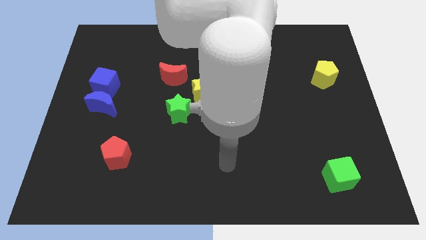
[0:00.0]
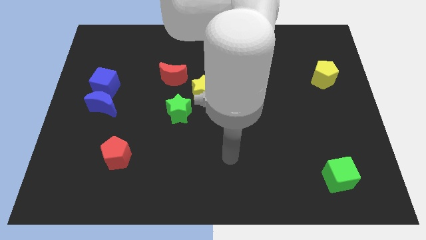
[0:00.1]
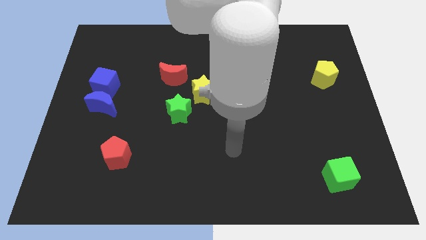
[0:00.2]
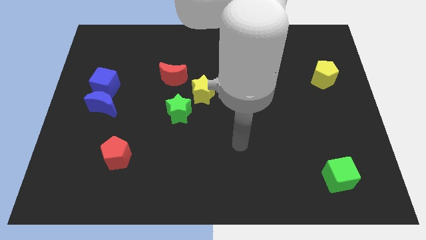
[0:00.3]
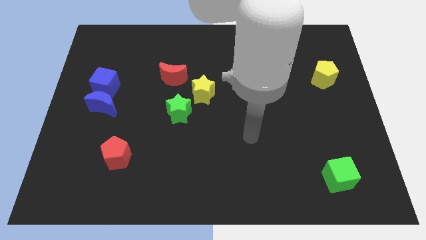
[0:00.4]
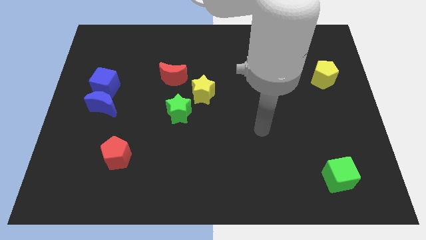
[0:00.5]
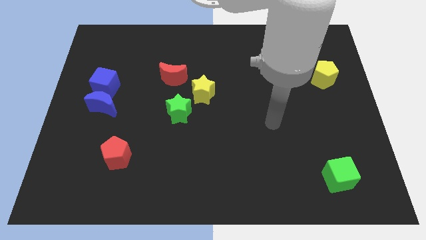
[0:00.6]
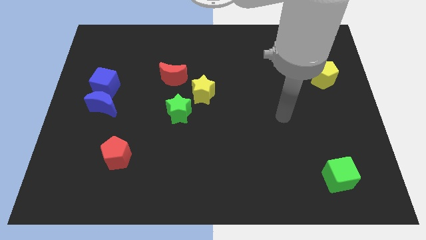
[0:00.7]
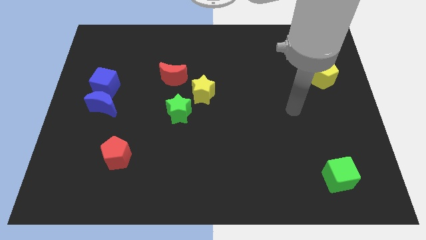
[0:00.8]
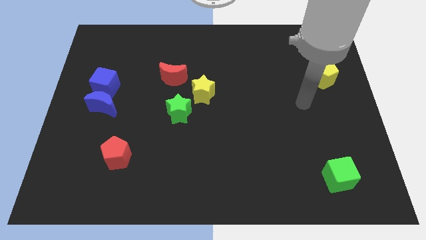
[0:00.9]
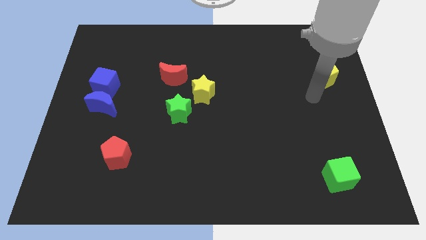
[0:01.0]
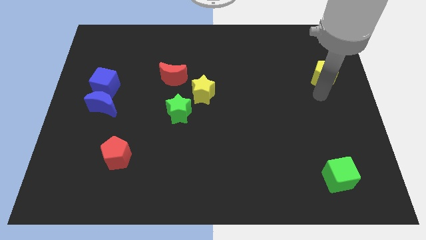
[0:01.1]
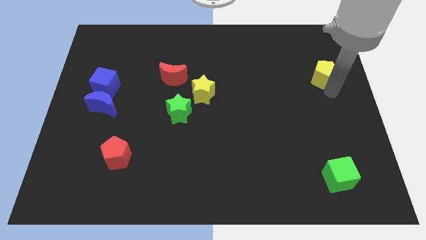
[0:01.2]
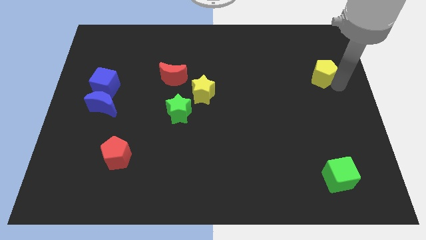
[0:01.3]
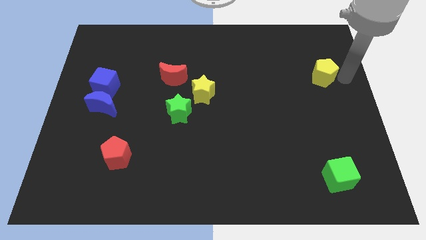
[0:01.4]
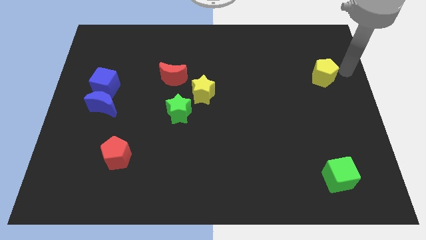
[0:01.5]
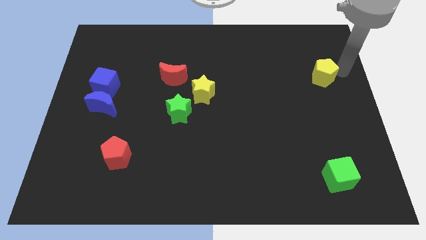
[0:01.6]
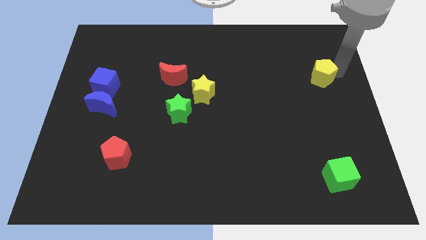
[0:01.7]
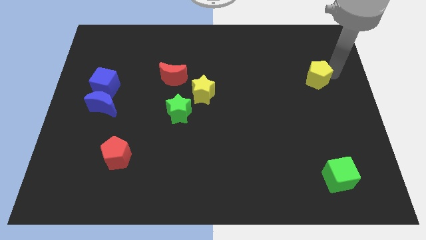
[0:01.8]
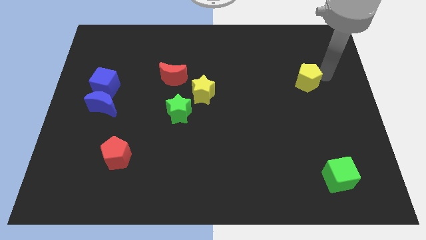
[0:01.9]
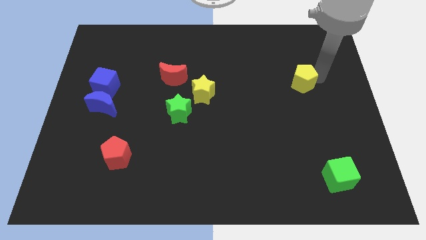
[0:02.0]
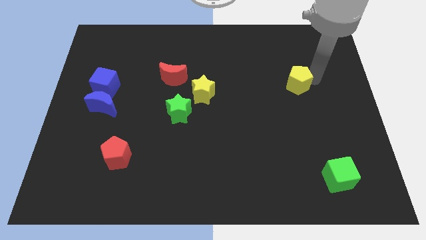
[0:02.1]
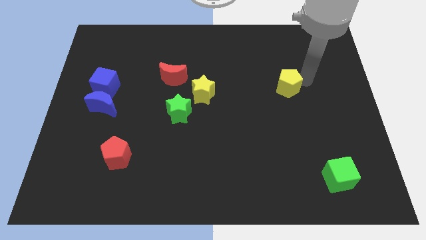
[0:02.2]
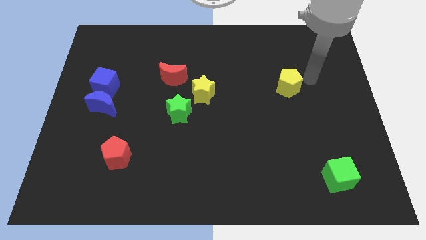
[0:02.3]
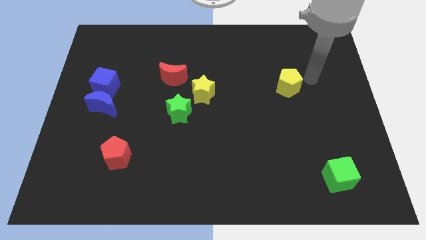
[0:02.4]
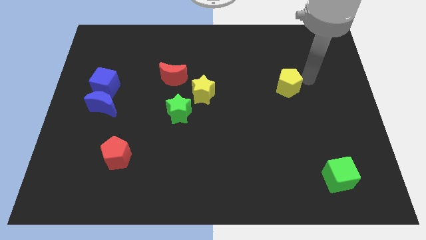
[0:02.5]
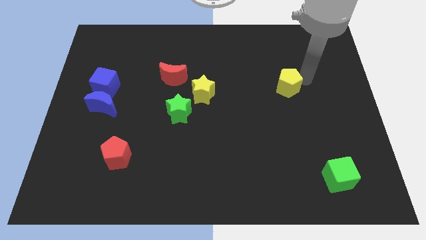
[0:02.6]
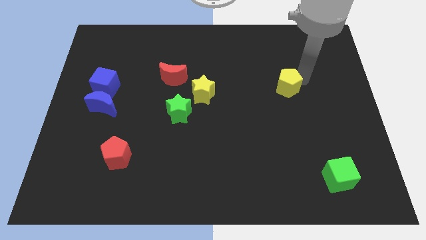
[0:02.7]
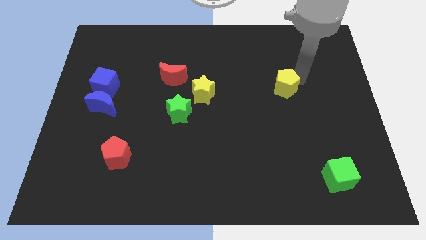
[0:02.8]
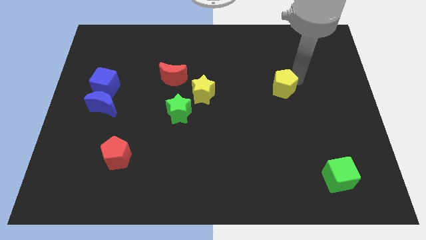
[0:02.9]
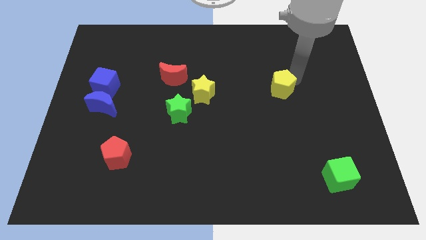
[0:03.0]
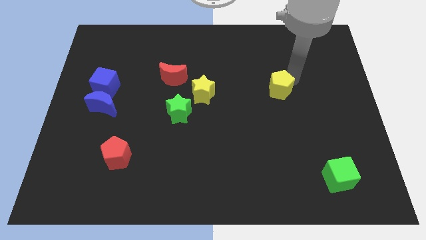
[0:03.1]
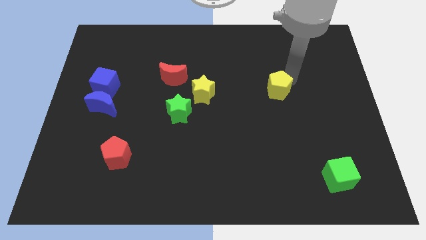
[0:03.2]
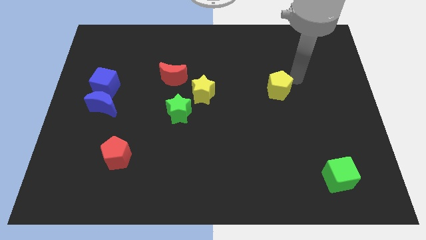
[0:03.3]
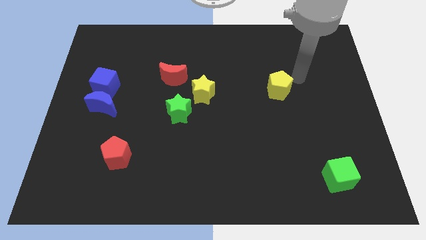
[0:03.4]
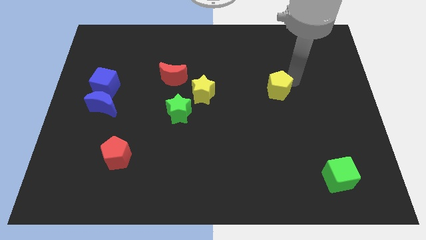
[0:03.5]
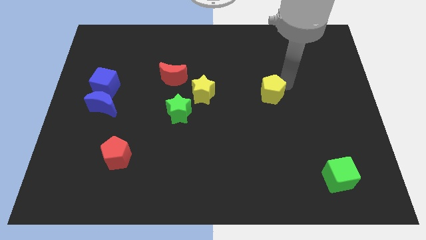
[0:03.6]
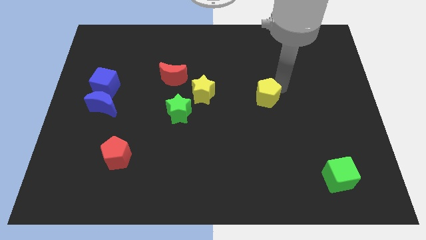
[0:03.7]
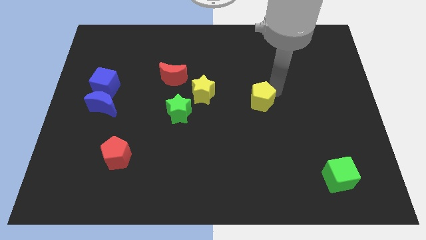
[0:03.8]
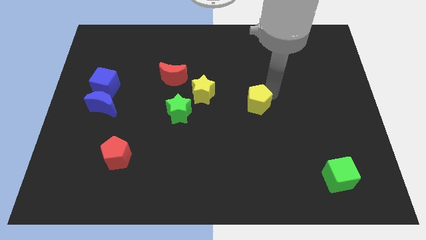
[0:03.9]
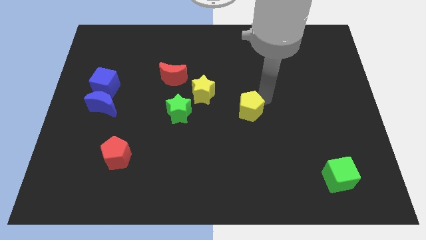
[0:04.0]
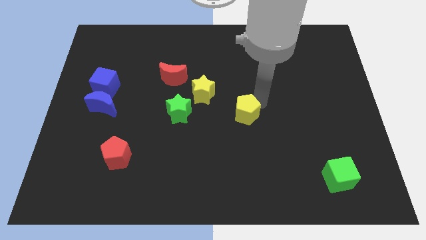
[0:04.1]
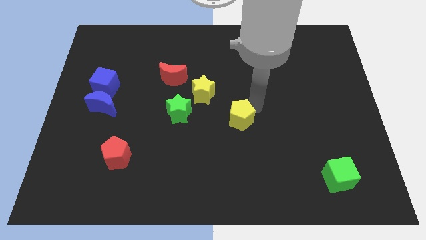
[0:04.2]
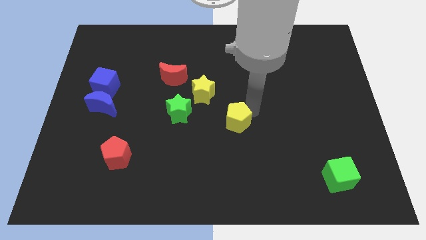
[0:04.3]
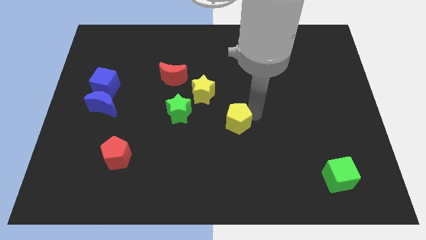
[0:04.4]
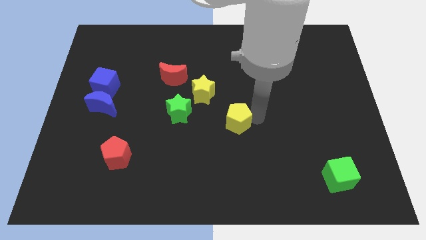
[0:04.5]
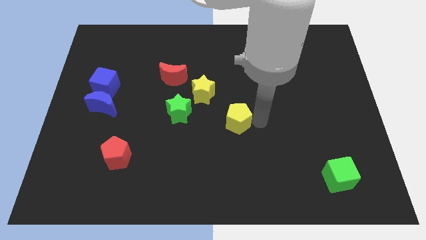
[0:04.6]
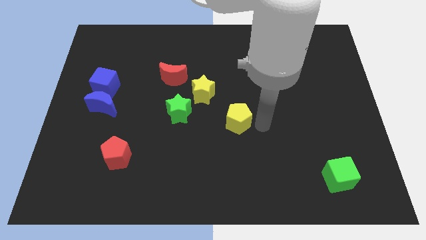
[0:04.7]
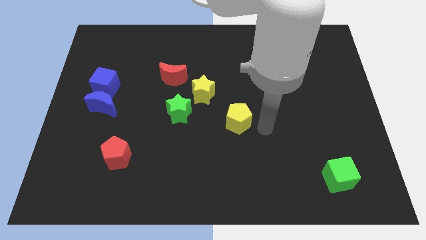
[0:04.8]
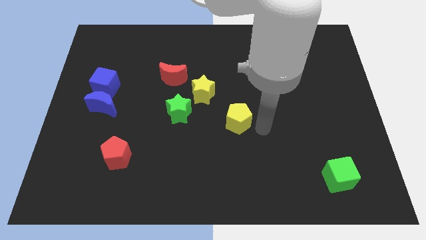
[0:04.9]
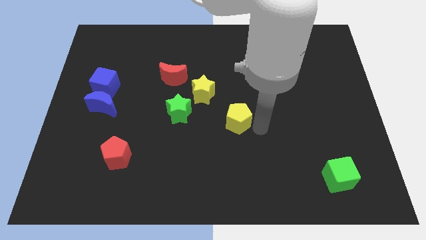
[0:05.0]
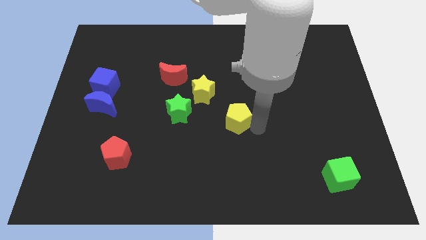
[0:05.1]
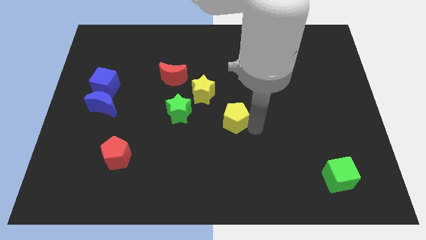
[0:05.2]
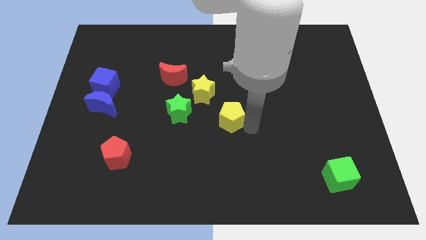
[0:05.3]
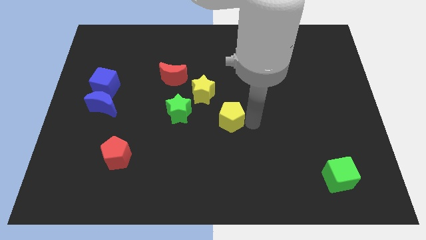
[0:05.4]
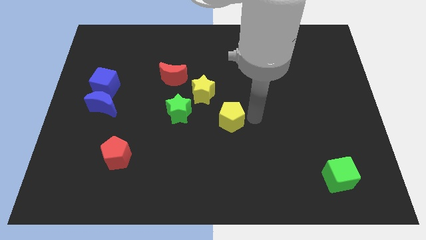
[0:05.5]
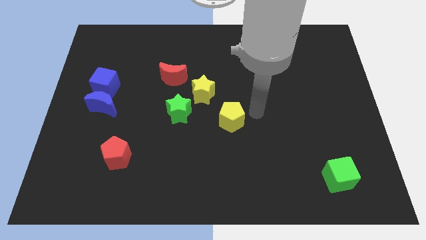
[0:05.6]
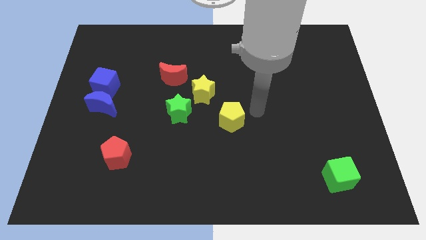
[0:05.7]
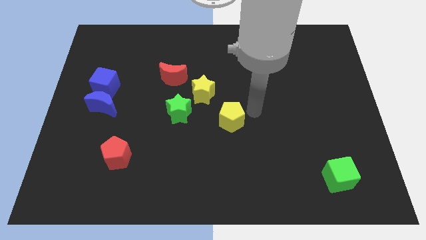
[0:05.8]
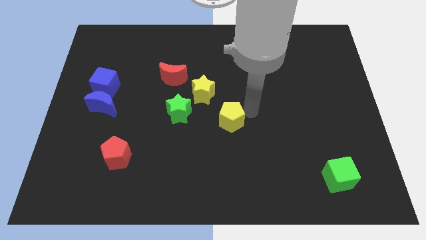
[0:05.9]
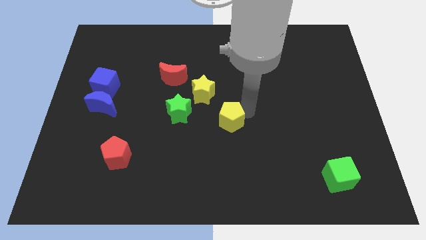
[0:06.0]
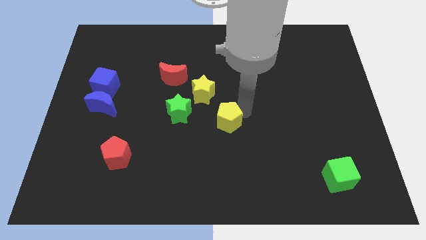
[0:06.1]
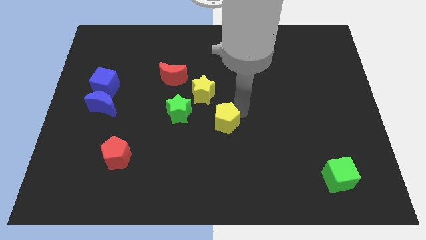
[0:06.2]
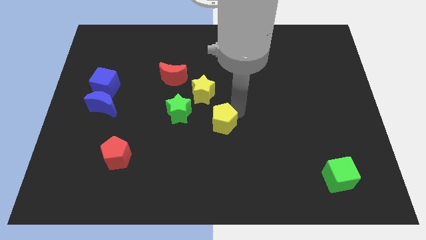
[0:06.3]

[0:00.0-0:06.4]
move the yellow pentagon to the bottom of the yellow star

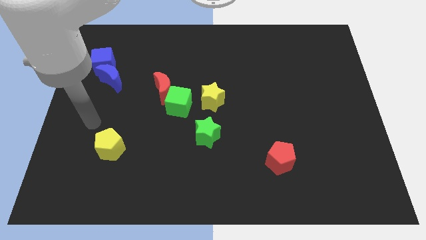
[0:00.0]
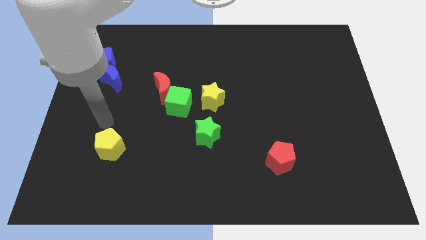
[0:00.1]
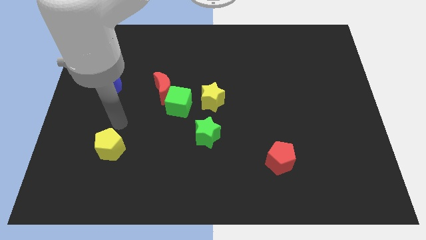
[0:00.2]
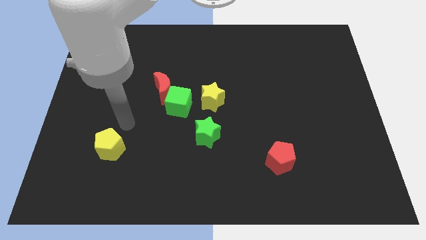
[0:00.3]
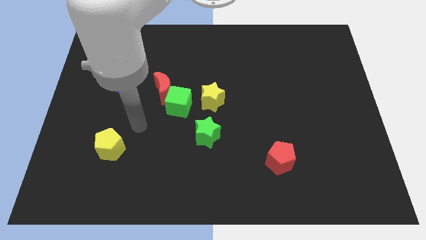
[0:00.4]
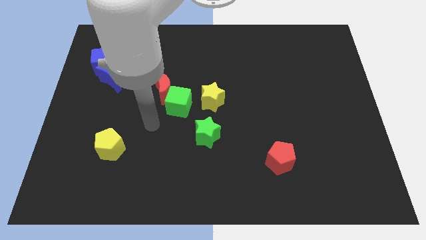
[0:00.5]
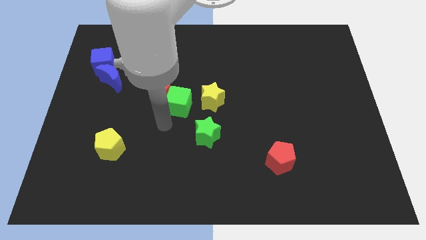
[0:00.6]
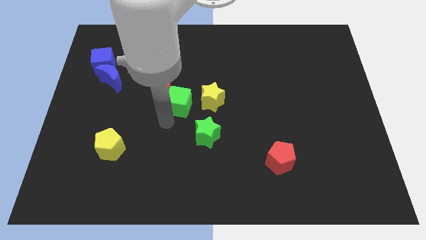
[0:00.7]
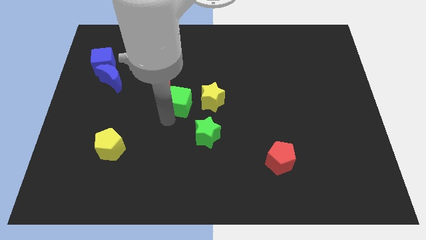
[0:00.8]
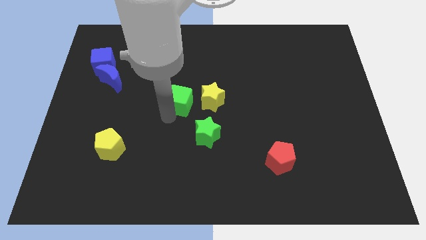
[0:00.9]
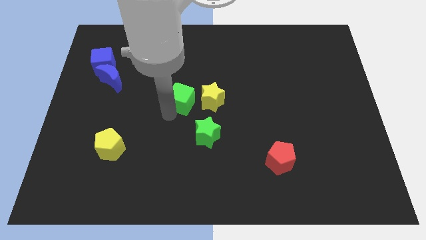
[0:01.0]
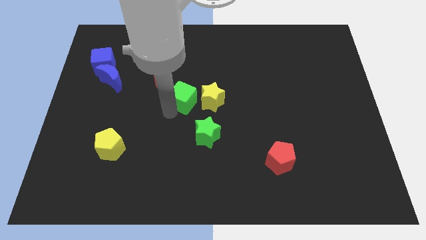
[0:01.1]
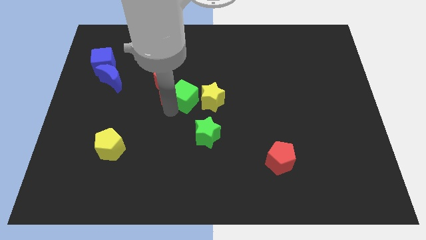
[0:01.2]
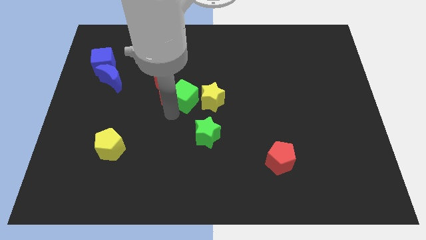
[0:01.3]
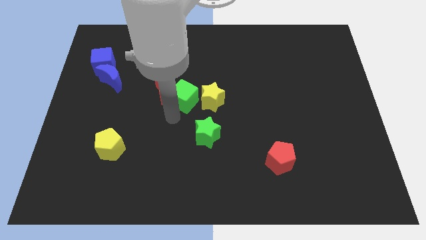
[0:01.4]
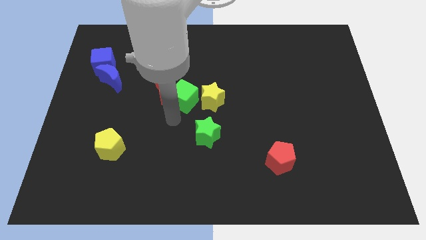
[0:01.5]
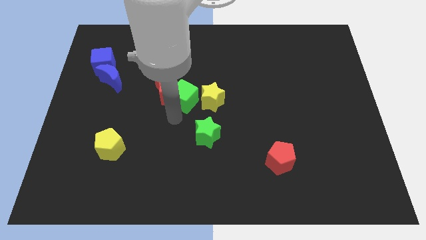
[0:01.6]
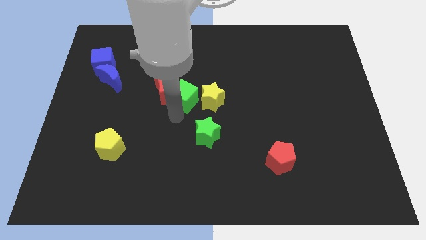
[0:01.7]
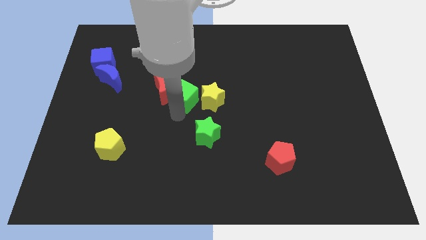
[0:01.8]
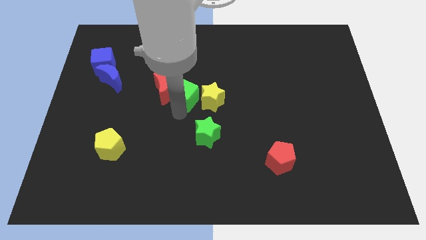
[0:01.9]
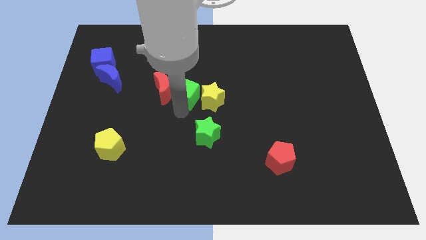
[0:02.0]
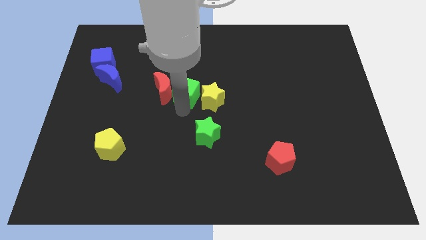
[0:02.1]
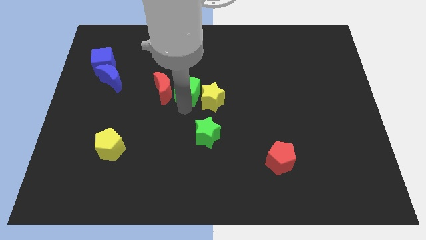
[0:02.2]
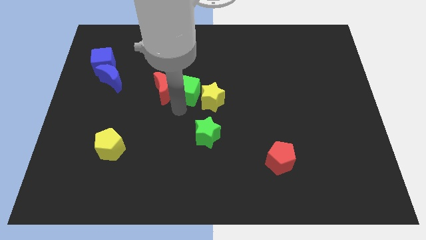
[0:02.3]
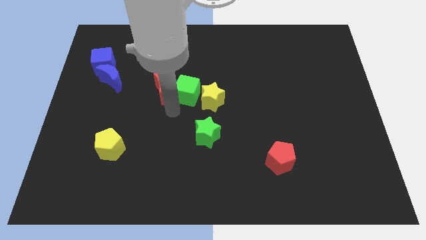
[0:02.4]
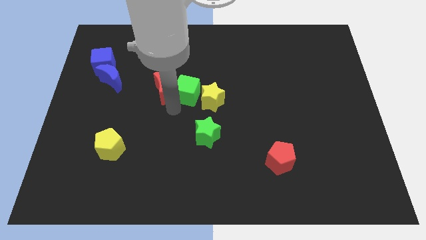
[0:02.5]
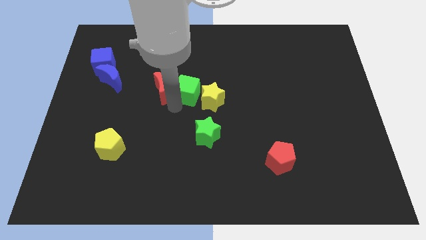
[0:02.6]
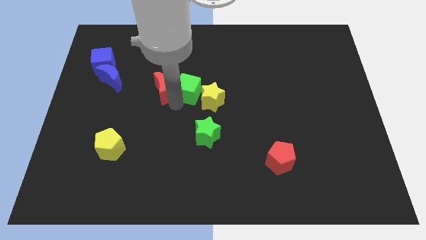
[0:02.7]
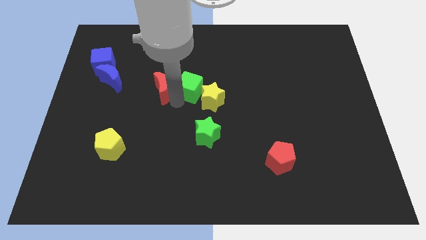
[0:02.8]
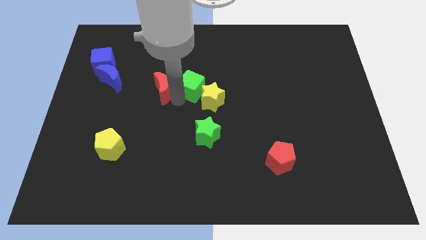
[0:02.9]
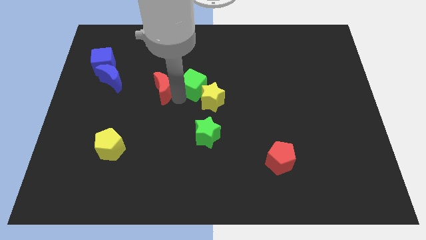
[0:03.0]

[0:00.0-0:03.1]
put the green cube to the top side of the yellow star
